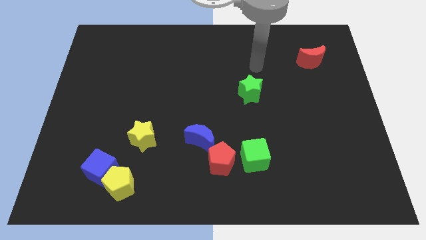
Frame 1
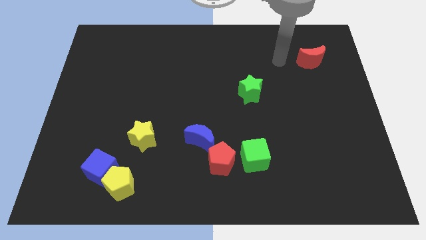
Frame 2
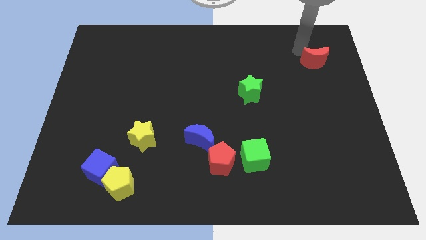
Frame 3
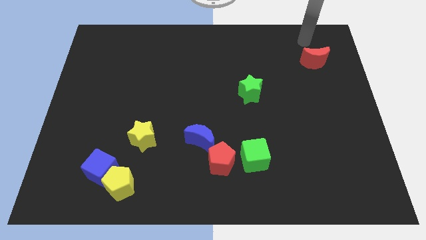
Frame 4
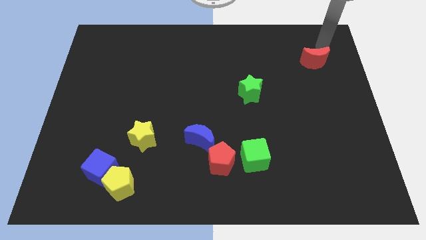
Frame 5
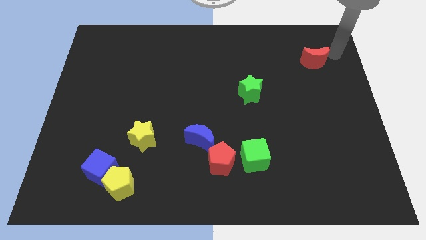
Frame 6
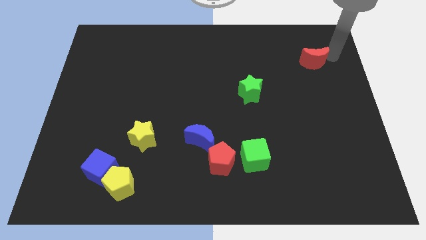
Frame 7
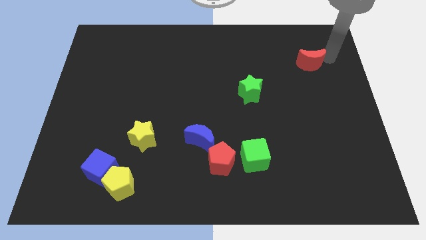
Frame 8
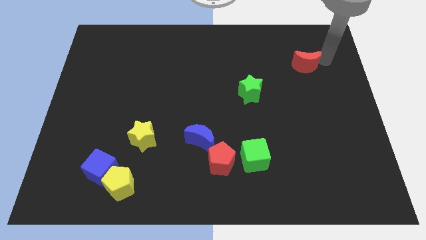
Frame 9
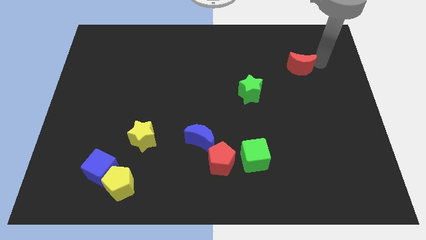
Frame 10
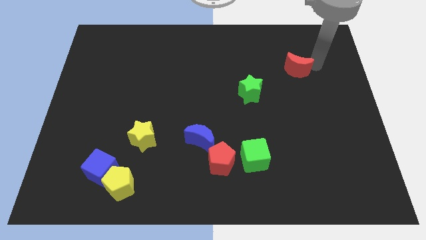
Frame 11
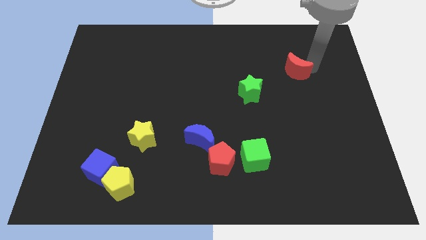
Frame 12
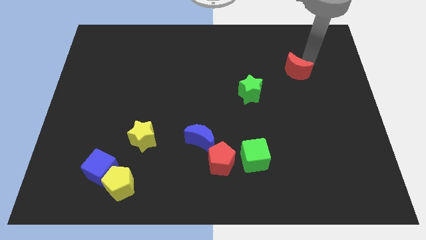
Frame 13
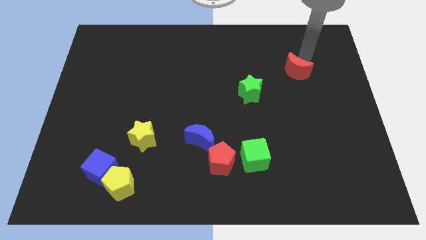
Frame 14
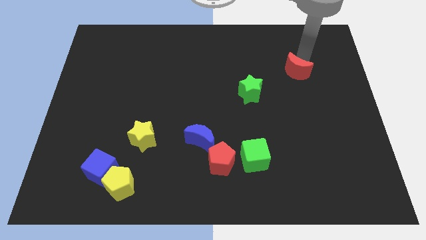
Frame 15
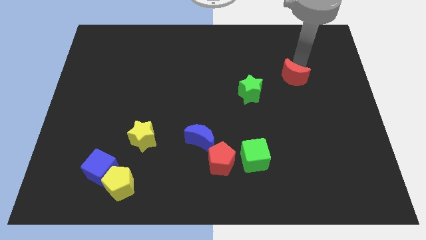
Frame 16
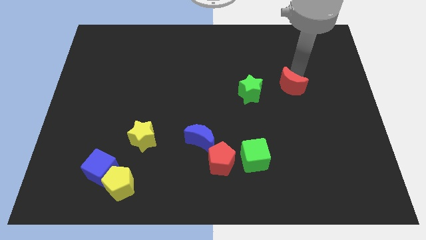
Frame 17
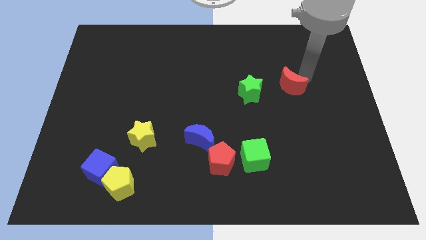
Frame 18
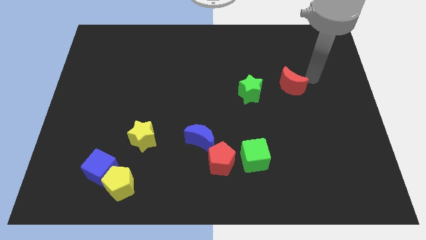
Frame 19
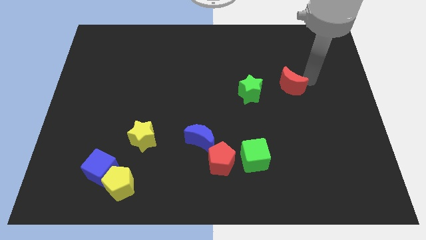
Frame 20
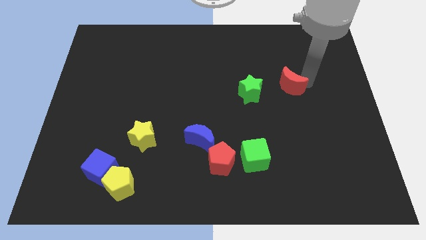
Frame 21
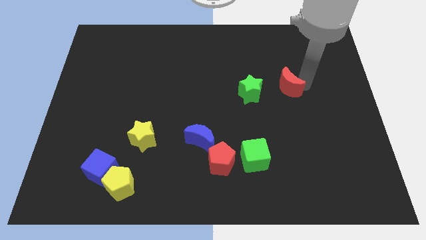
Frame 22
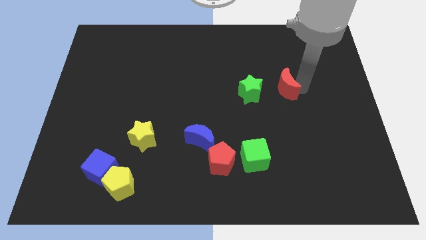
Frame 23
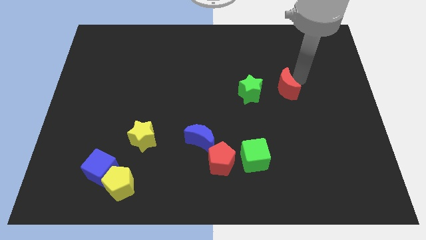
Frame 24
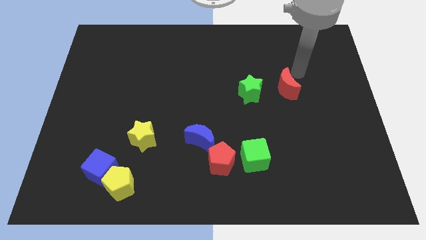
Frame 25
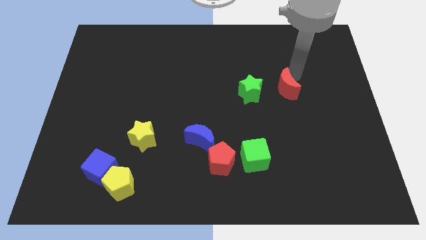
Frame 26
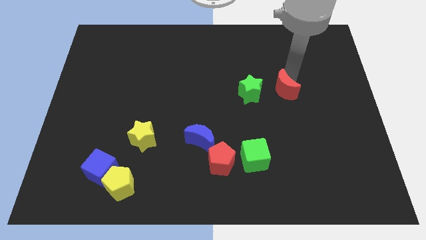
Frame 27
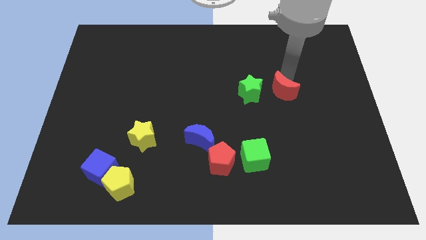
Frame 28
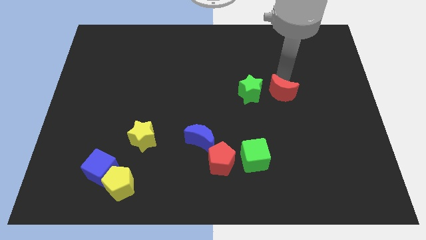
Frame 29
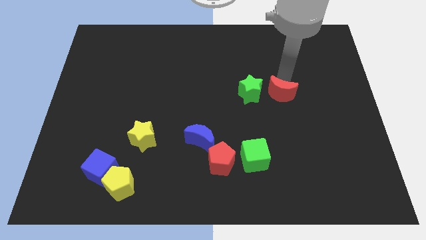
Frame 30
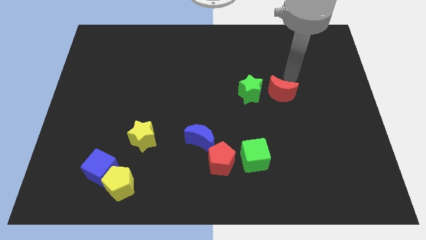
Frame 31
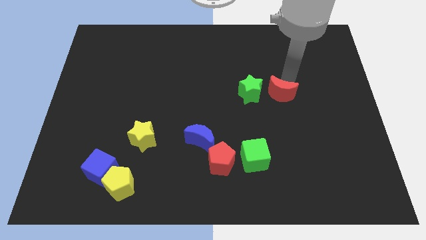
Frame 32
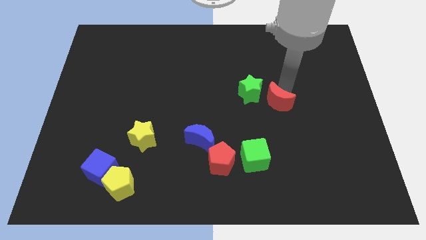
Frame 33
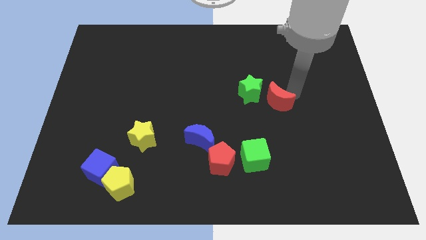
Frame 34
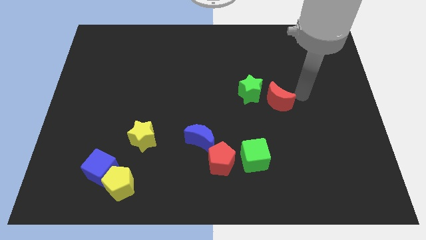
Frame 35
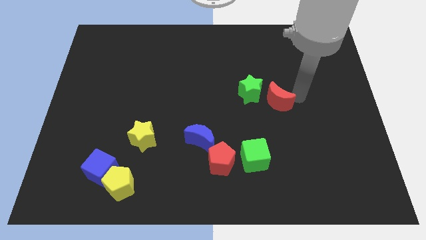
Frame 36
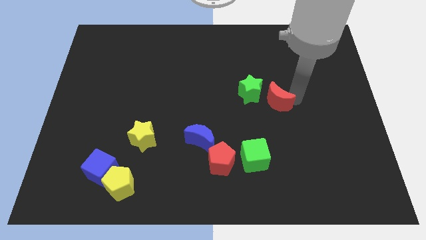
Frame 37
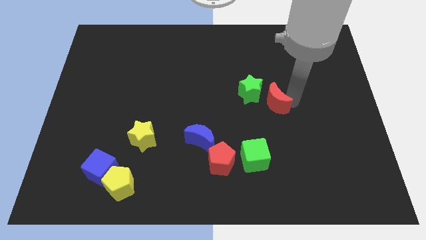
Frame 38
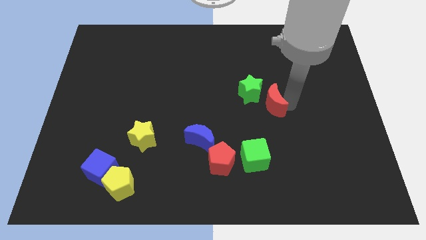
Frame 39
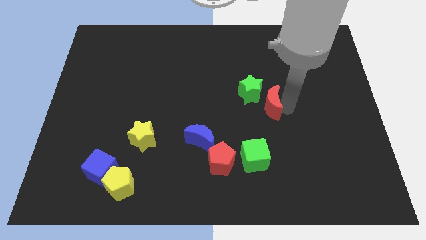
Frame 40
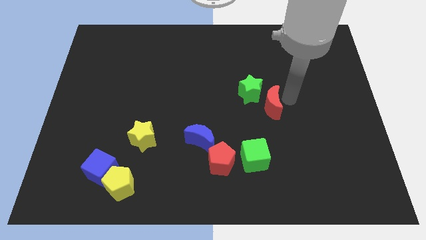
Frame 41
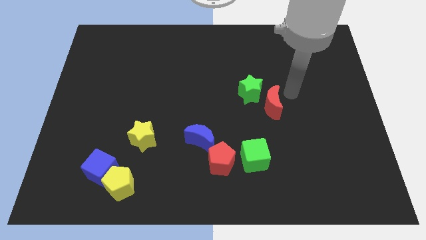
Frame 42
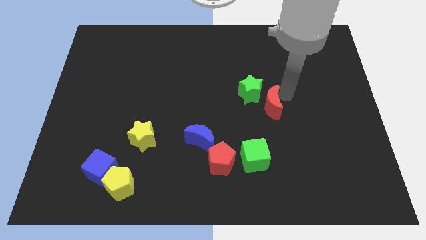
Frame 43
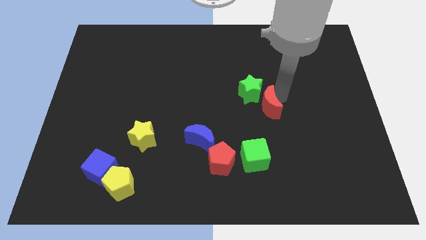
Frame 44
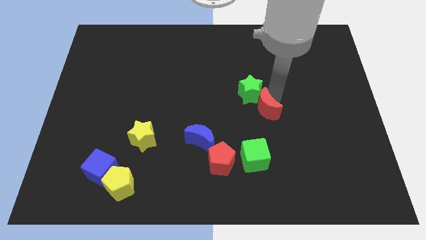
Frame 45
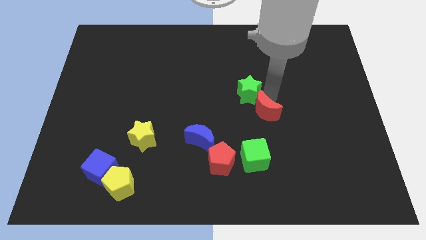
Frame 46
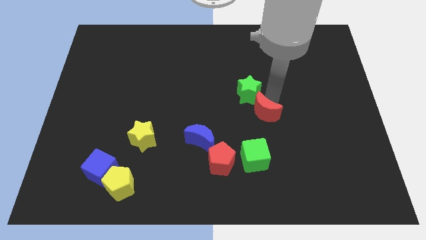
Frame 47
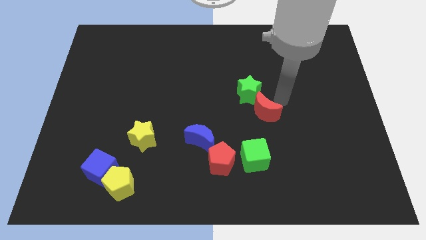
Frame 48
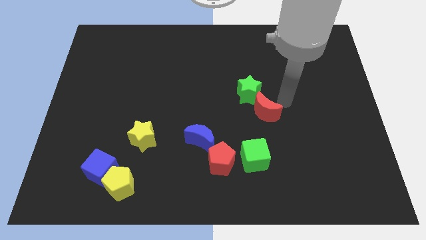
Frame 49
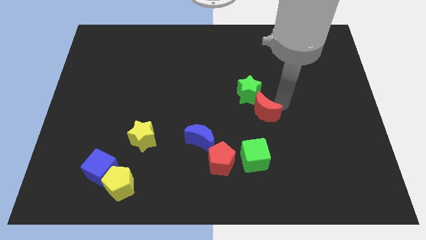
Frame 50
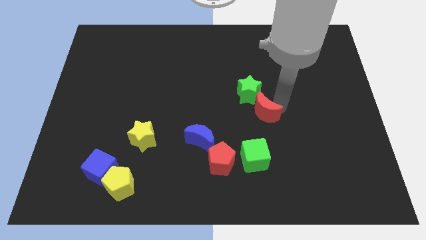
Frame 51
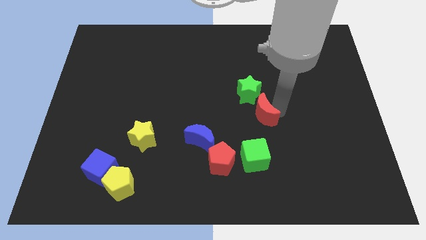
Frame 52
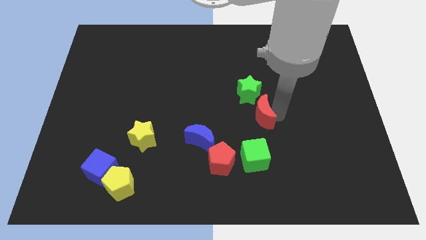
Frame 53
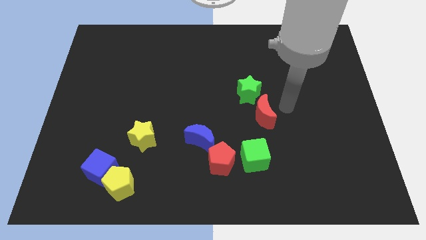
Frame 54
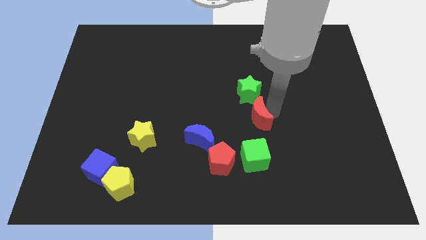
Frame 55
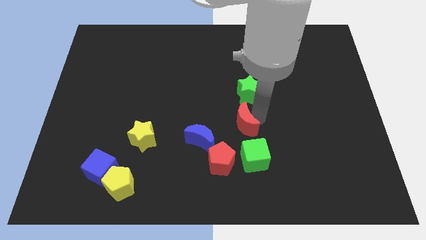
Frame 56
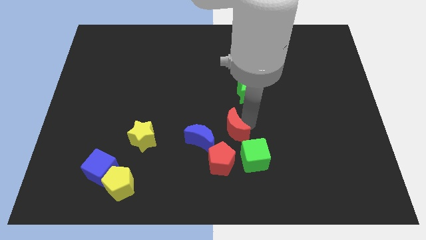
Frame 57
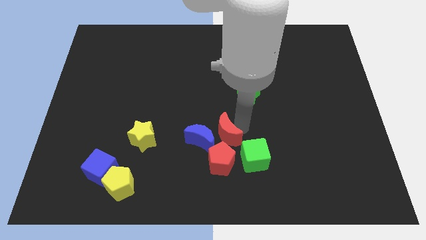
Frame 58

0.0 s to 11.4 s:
put the red moon towards the blue moon

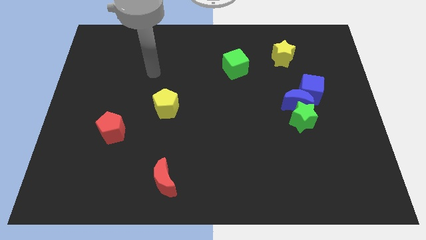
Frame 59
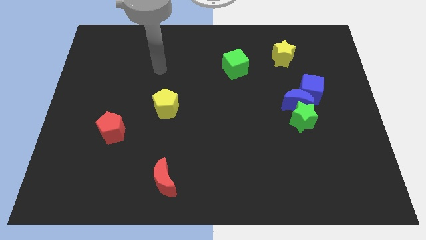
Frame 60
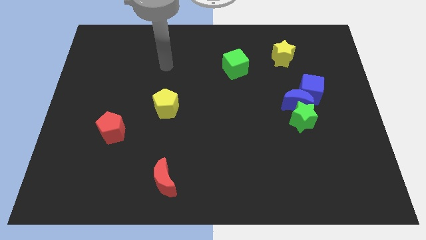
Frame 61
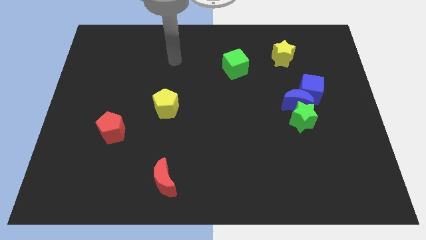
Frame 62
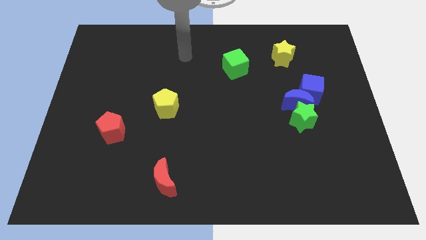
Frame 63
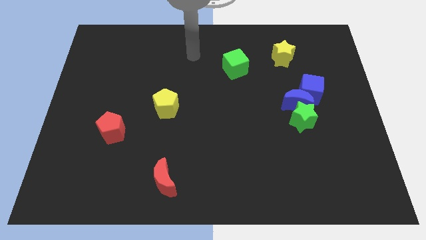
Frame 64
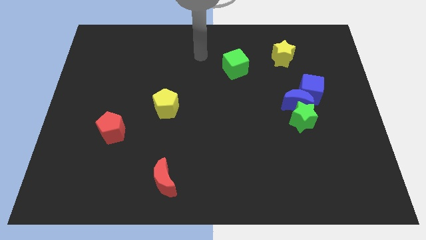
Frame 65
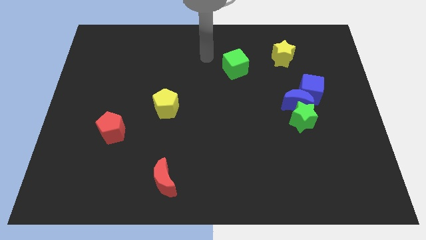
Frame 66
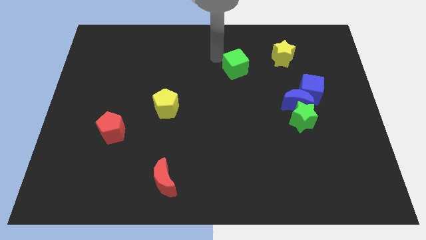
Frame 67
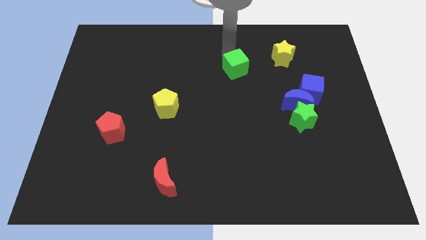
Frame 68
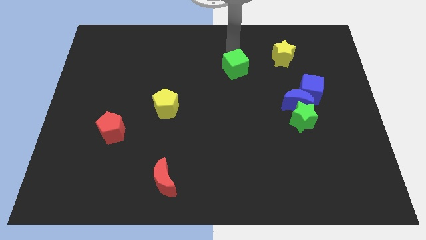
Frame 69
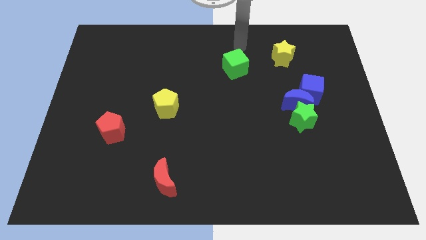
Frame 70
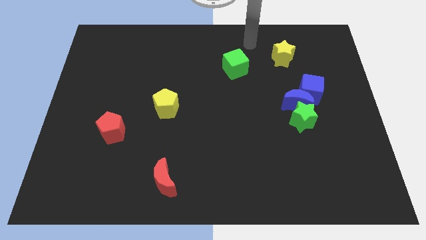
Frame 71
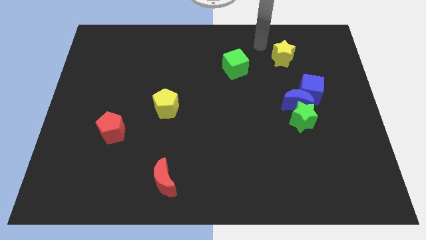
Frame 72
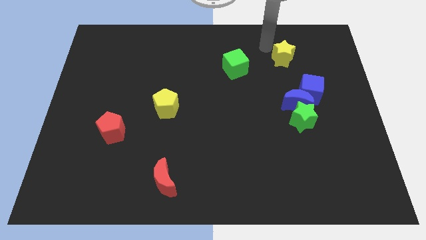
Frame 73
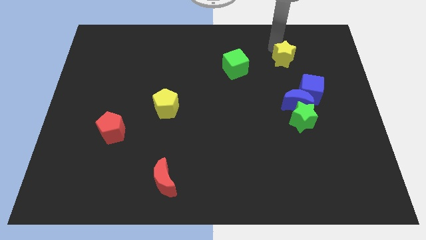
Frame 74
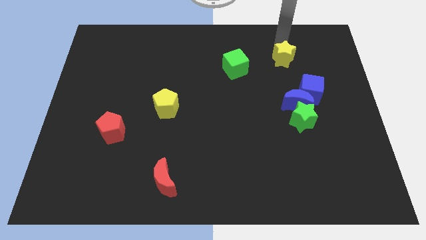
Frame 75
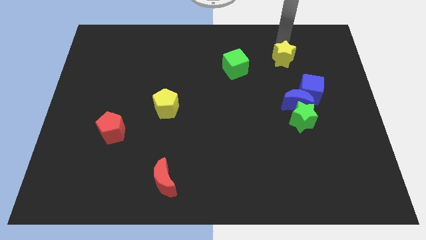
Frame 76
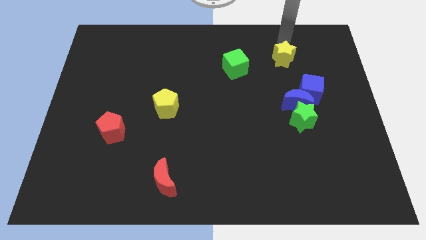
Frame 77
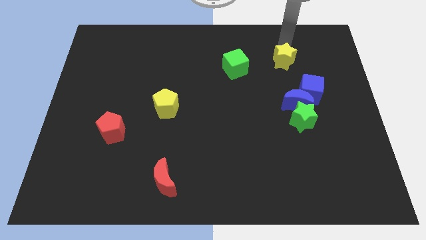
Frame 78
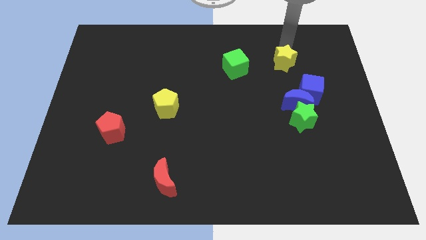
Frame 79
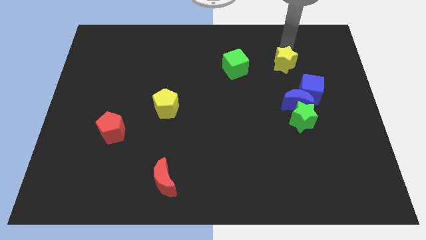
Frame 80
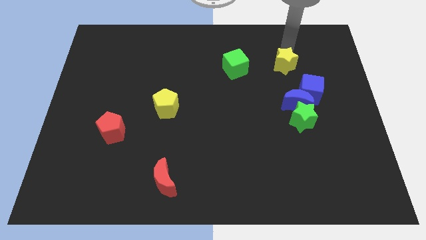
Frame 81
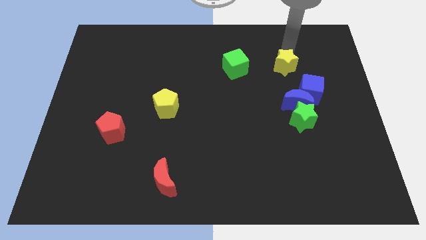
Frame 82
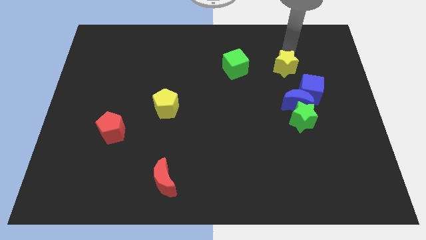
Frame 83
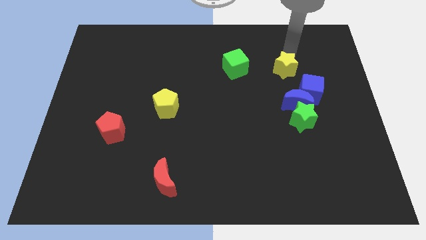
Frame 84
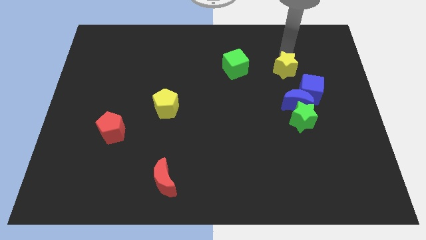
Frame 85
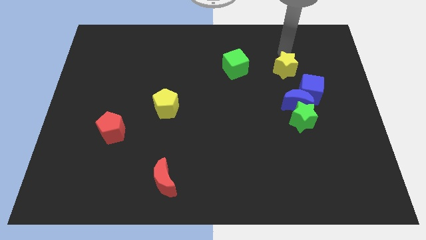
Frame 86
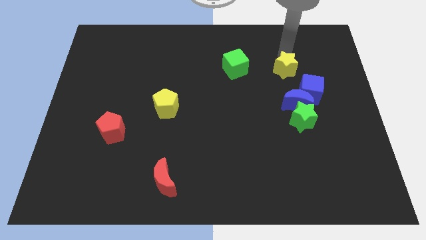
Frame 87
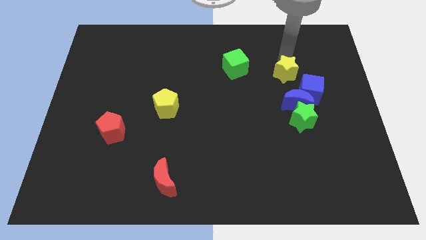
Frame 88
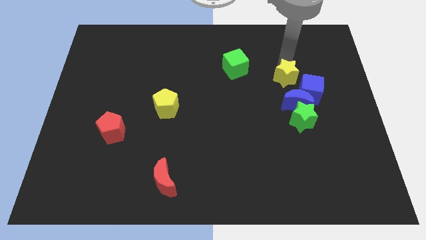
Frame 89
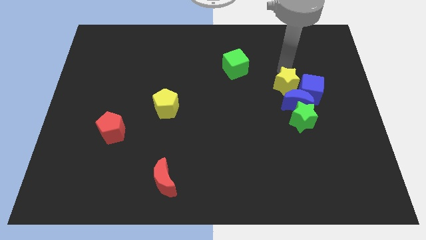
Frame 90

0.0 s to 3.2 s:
push the yellow star next to the blue moon
